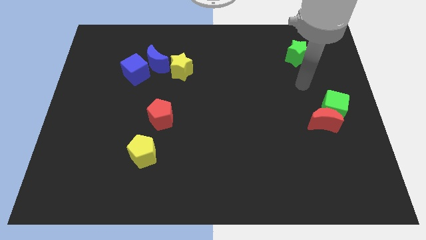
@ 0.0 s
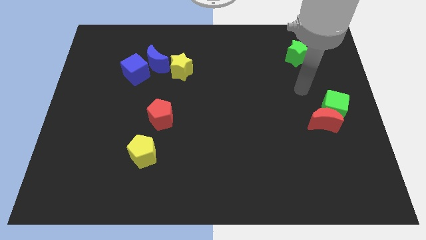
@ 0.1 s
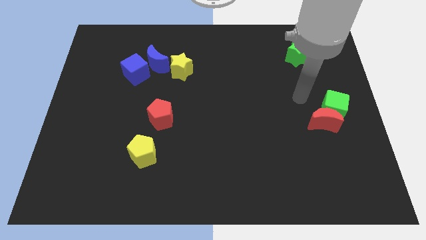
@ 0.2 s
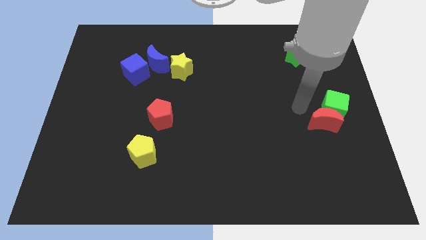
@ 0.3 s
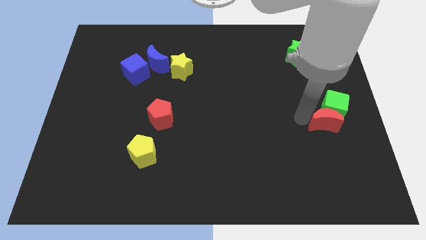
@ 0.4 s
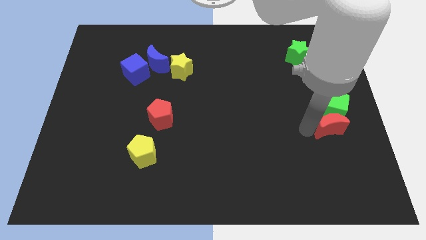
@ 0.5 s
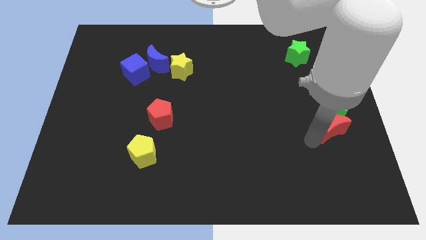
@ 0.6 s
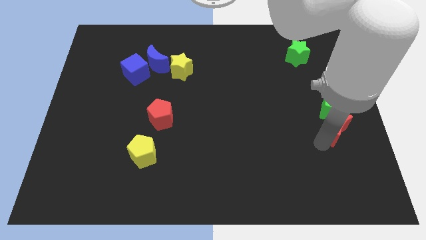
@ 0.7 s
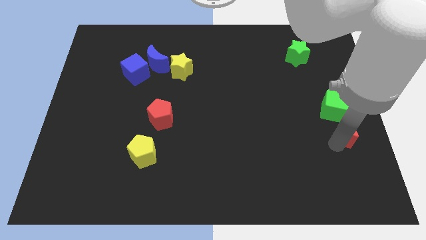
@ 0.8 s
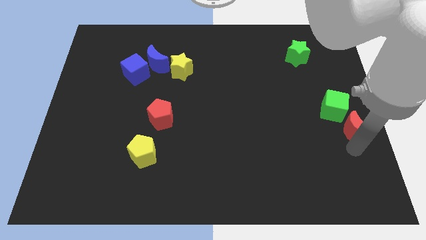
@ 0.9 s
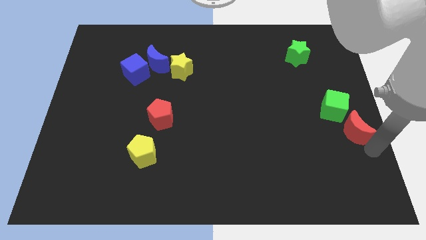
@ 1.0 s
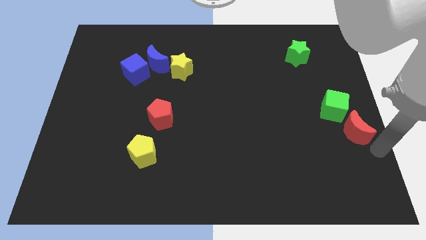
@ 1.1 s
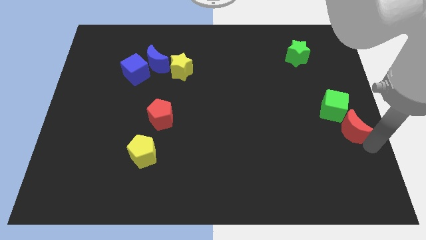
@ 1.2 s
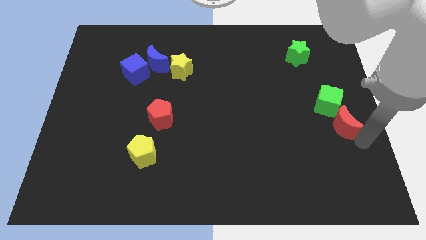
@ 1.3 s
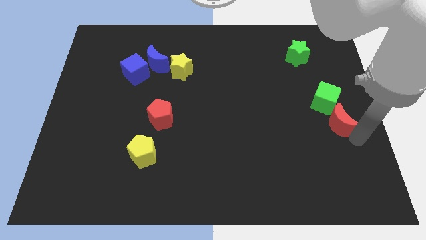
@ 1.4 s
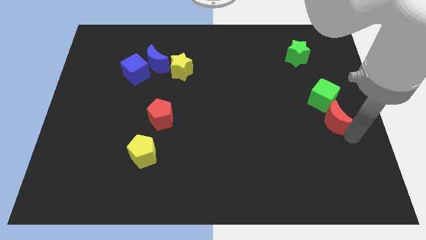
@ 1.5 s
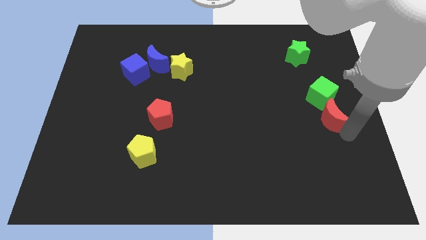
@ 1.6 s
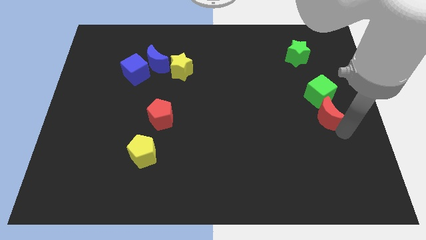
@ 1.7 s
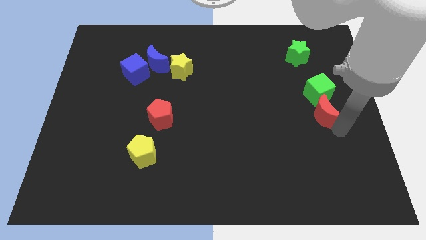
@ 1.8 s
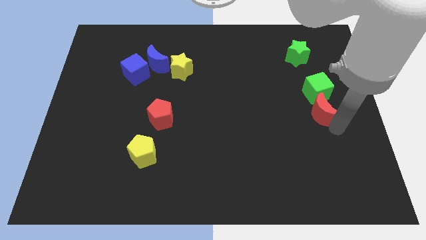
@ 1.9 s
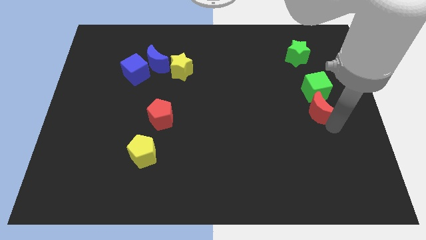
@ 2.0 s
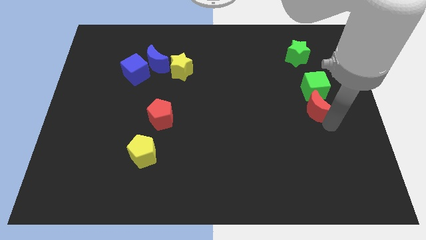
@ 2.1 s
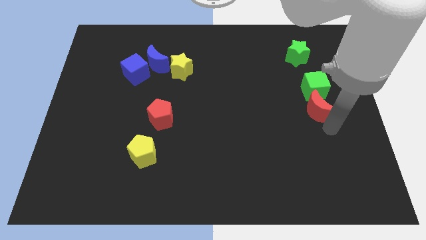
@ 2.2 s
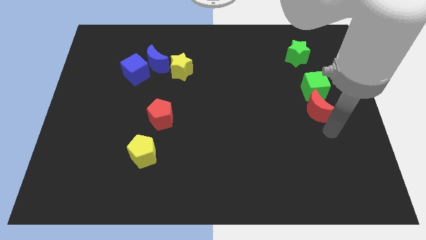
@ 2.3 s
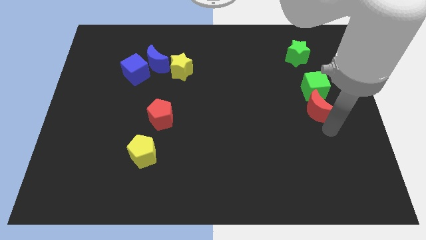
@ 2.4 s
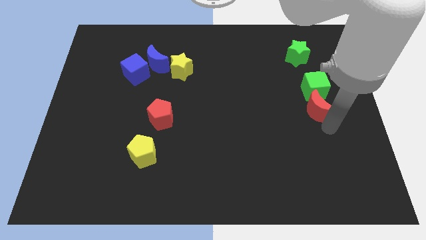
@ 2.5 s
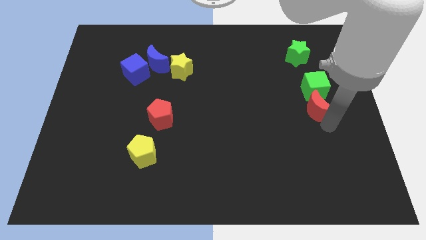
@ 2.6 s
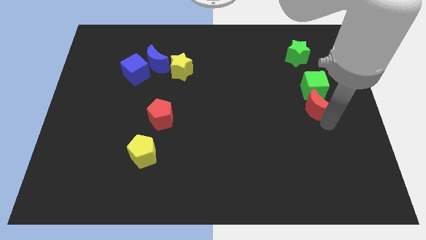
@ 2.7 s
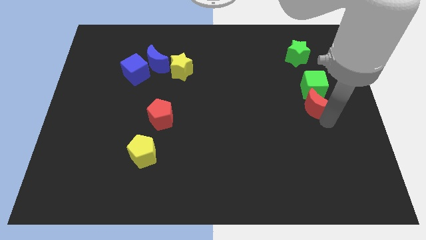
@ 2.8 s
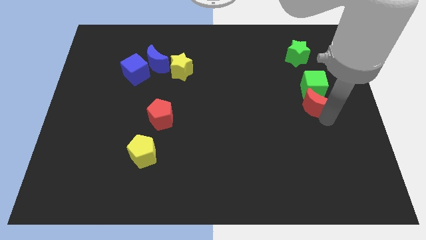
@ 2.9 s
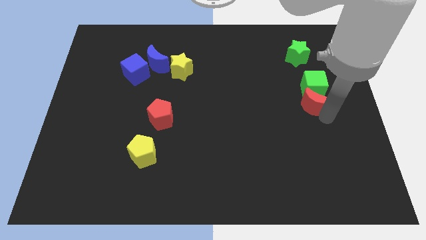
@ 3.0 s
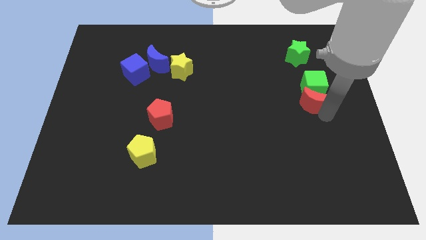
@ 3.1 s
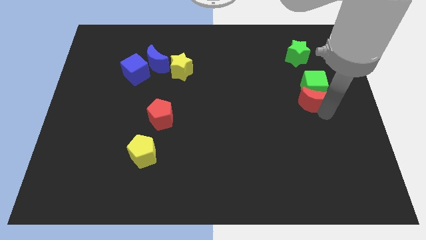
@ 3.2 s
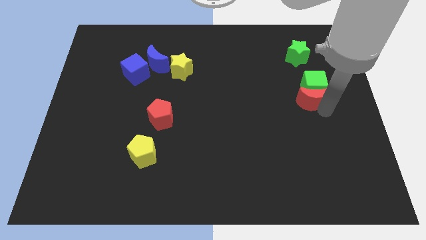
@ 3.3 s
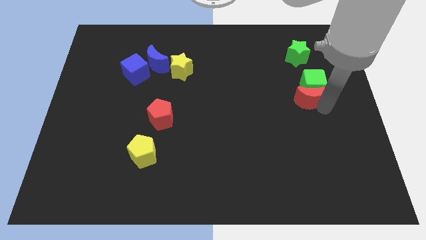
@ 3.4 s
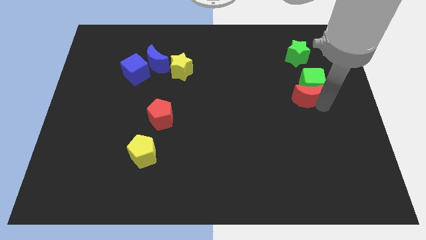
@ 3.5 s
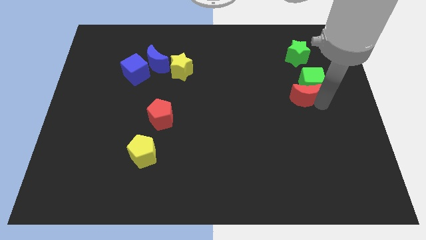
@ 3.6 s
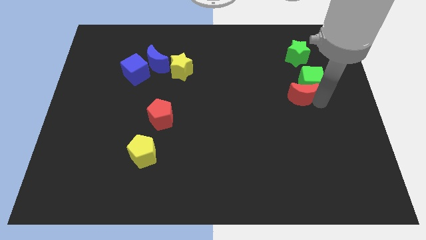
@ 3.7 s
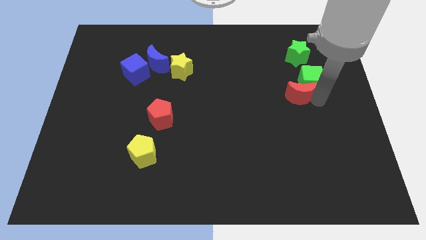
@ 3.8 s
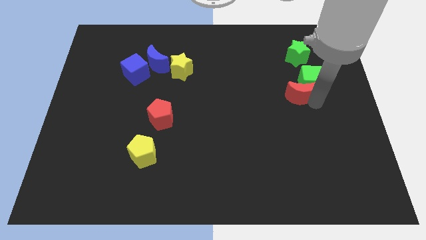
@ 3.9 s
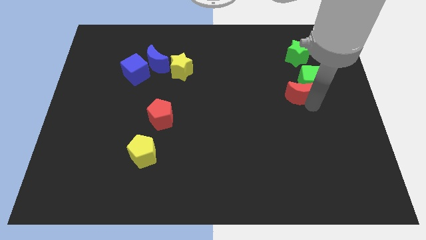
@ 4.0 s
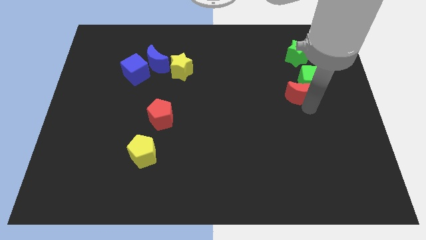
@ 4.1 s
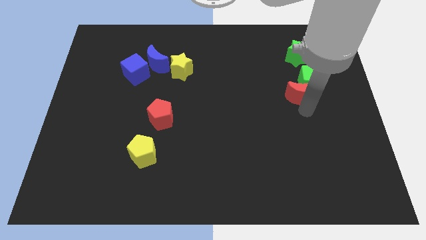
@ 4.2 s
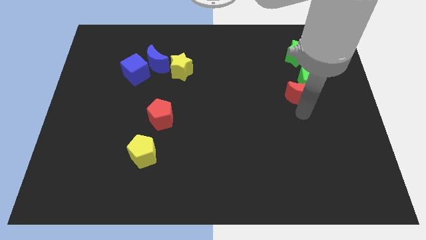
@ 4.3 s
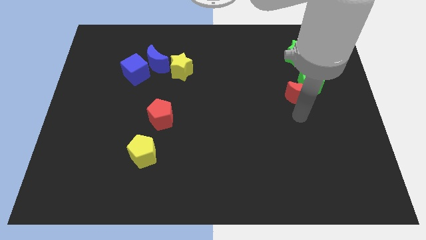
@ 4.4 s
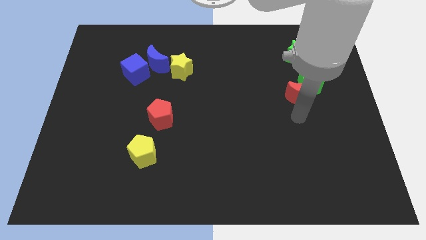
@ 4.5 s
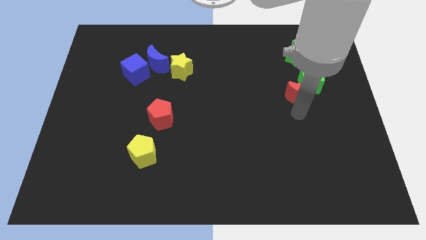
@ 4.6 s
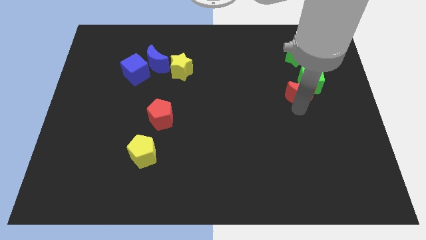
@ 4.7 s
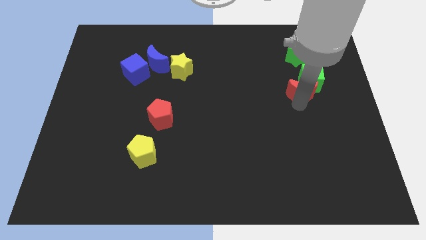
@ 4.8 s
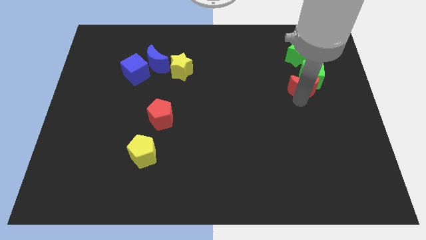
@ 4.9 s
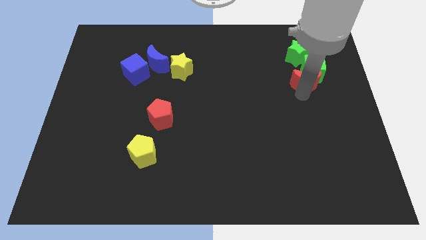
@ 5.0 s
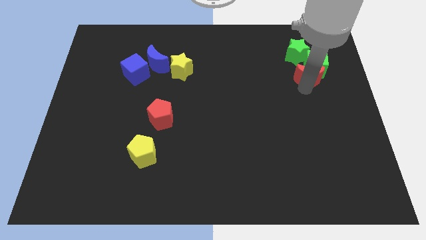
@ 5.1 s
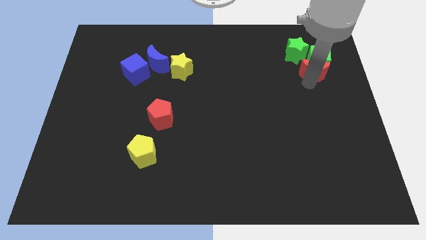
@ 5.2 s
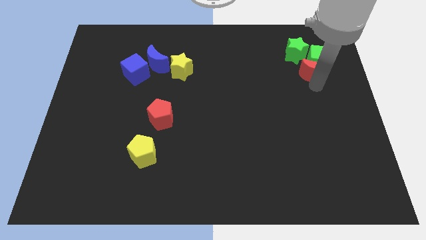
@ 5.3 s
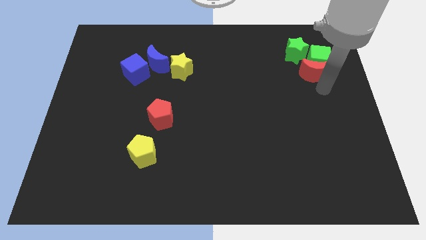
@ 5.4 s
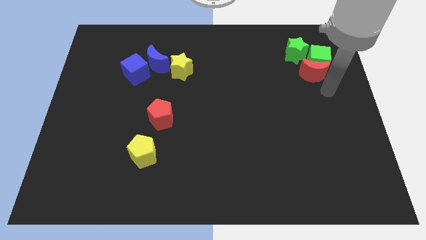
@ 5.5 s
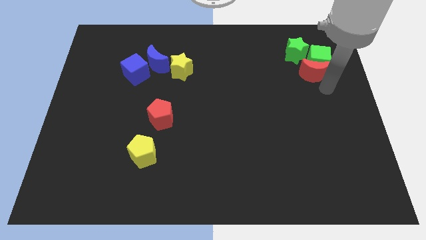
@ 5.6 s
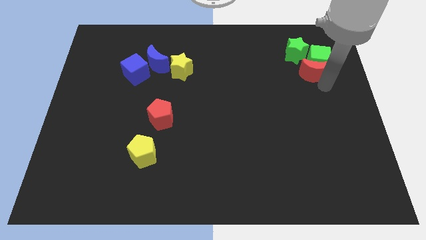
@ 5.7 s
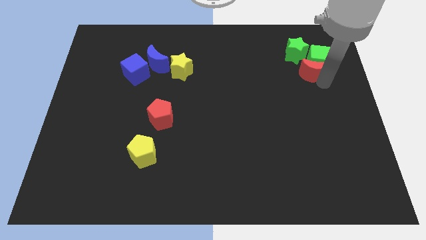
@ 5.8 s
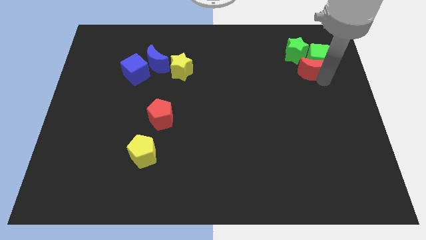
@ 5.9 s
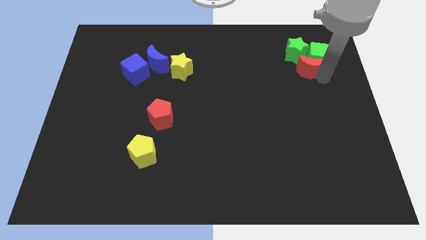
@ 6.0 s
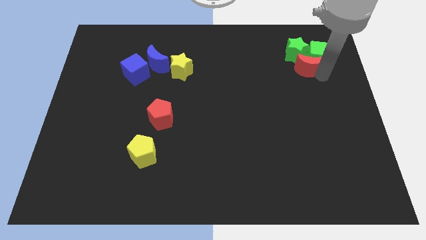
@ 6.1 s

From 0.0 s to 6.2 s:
move the red moon next to the green star

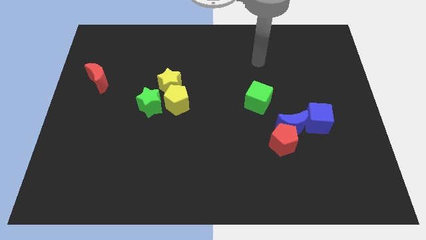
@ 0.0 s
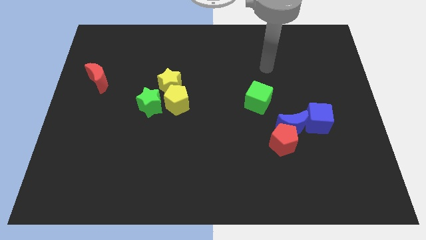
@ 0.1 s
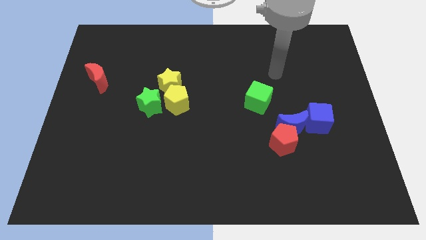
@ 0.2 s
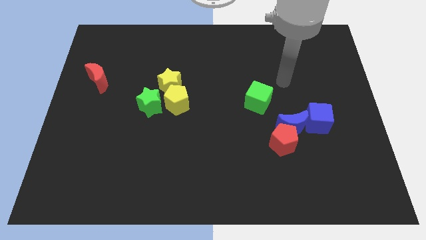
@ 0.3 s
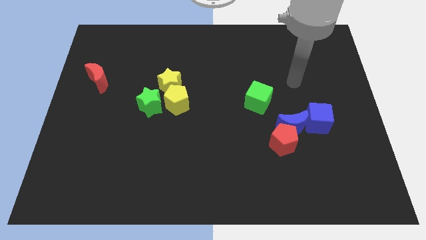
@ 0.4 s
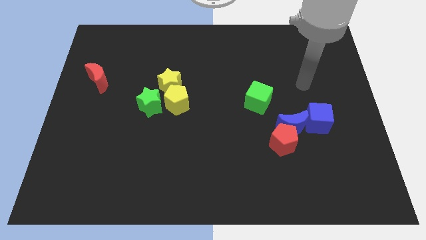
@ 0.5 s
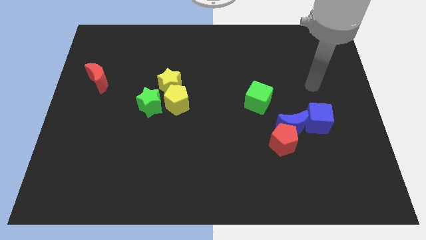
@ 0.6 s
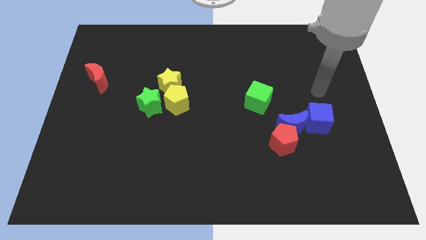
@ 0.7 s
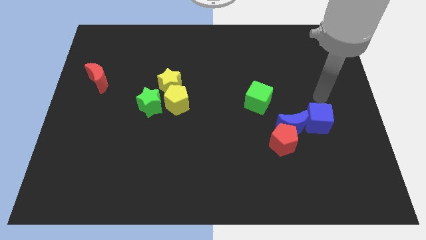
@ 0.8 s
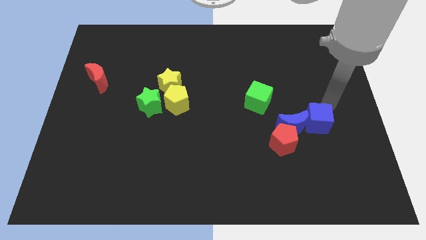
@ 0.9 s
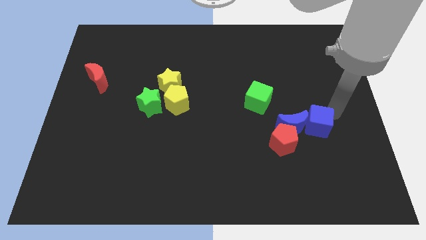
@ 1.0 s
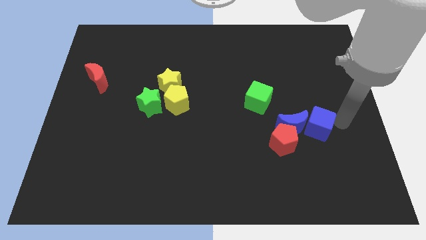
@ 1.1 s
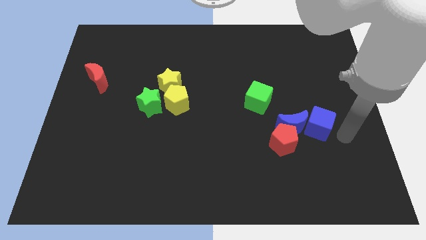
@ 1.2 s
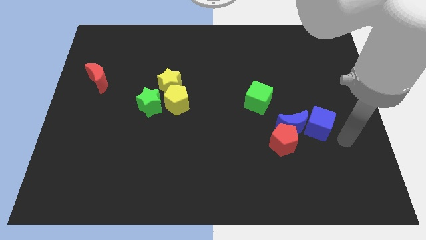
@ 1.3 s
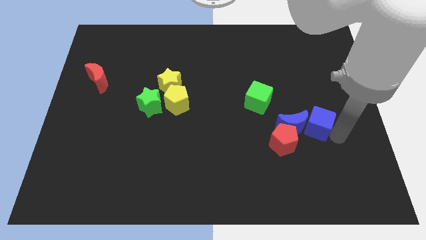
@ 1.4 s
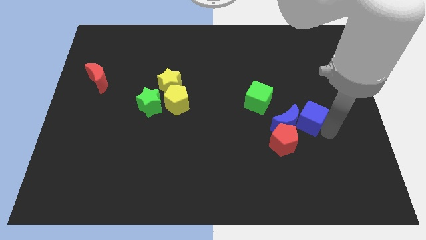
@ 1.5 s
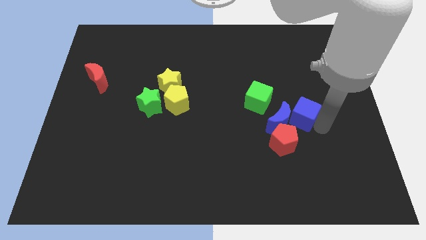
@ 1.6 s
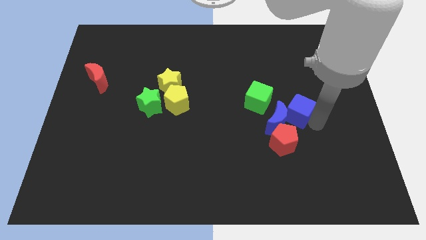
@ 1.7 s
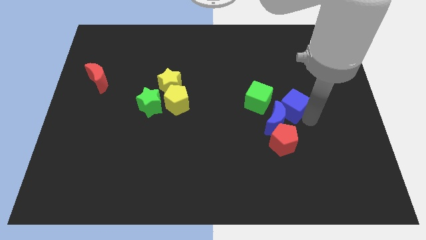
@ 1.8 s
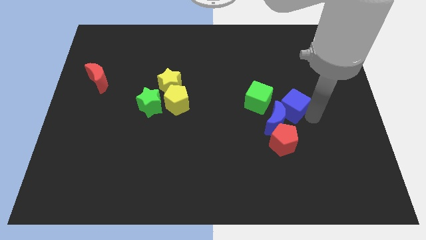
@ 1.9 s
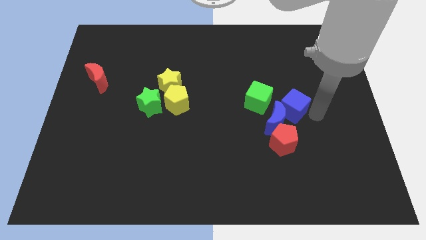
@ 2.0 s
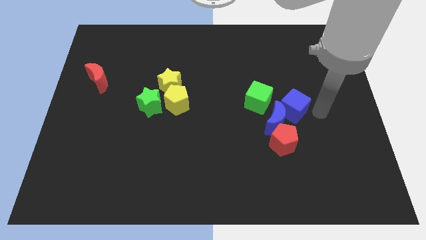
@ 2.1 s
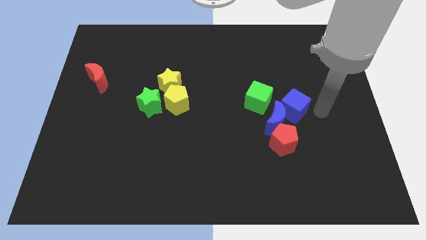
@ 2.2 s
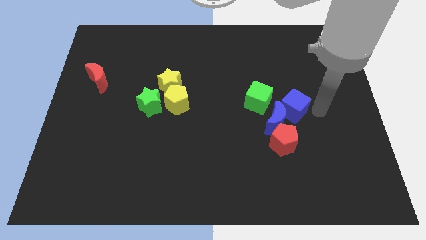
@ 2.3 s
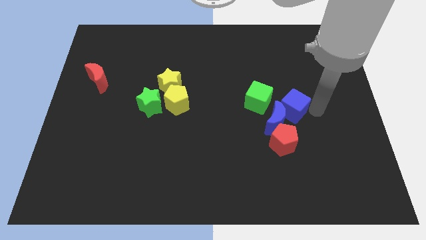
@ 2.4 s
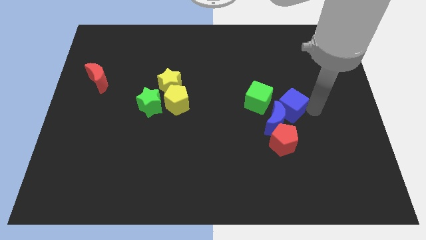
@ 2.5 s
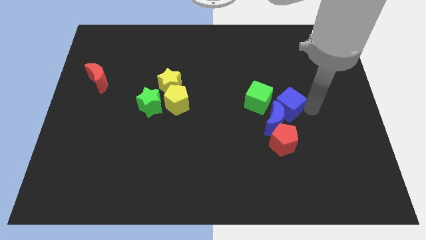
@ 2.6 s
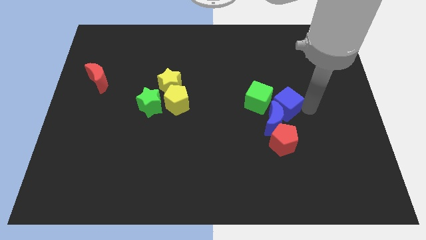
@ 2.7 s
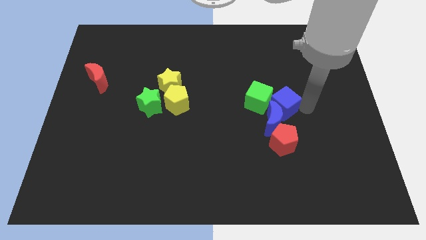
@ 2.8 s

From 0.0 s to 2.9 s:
slide the blue cube next to the green cube
